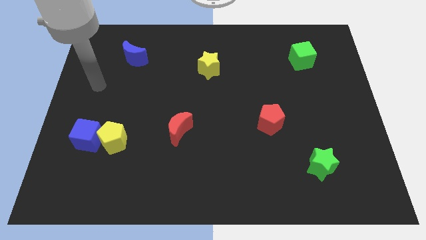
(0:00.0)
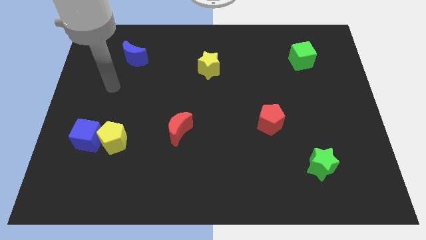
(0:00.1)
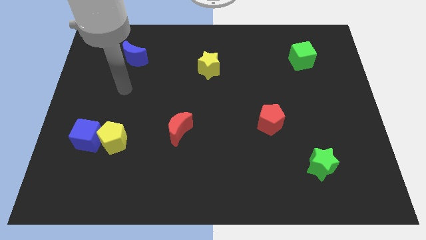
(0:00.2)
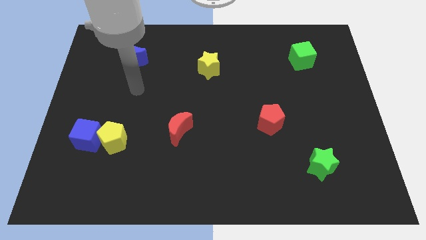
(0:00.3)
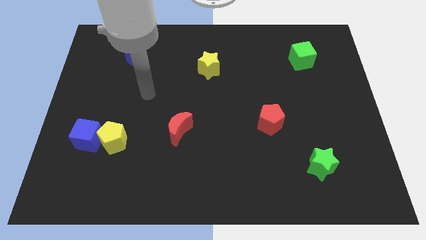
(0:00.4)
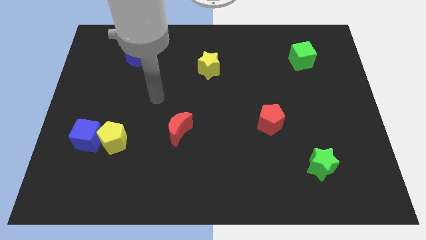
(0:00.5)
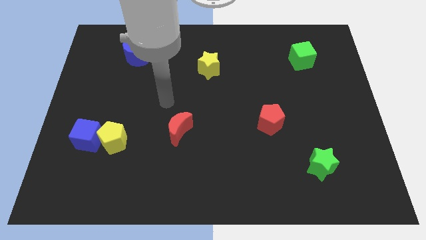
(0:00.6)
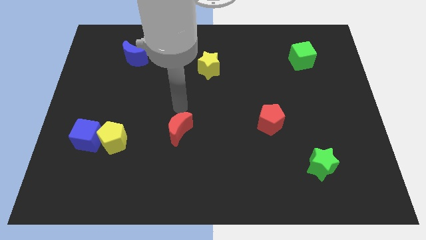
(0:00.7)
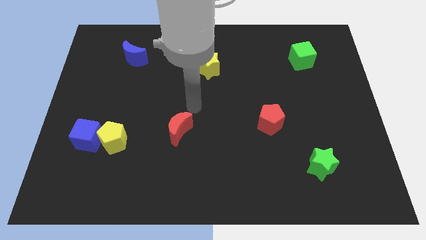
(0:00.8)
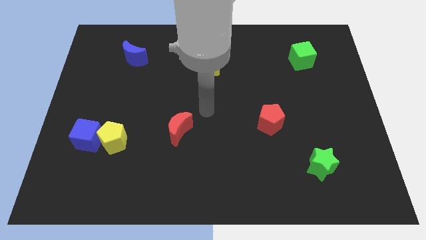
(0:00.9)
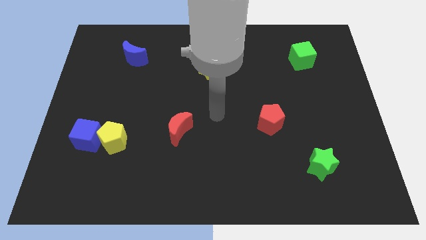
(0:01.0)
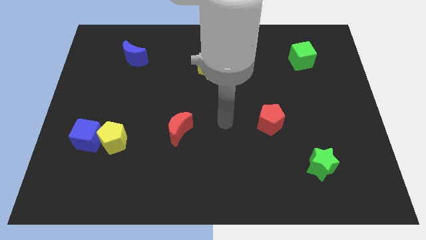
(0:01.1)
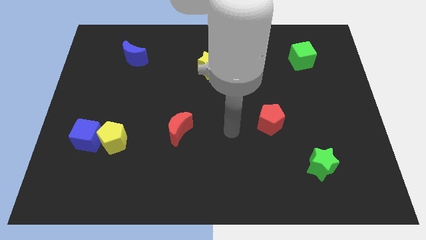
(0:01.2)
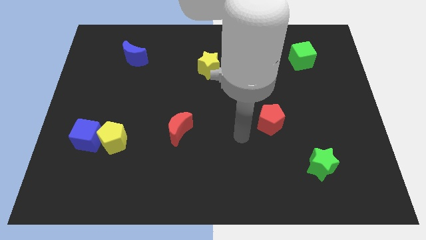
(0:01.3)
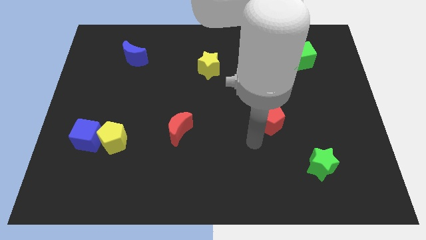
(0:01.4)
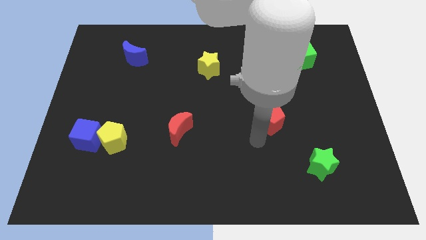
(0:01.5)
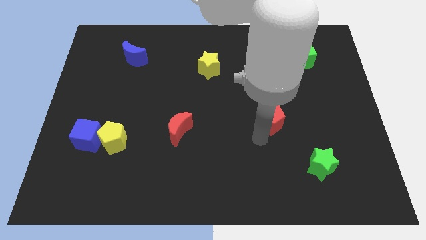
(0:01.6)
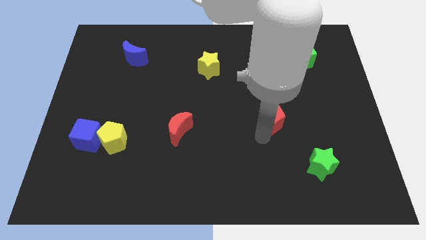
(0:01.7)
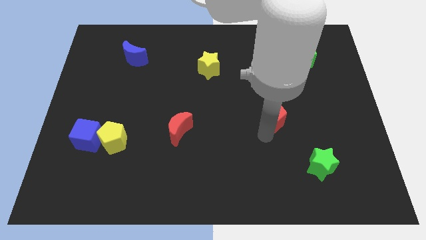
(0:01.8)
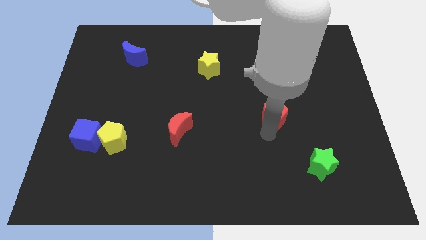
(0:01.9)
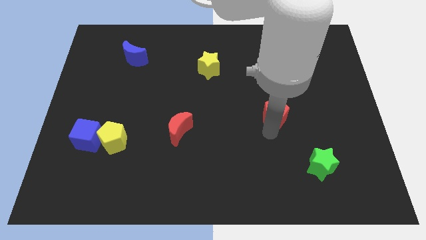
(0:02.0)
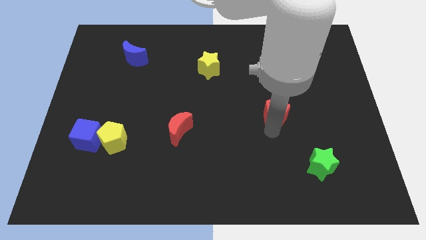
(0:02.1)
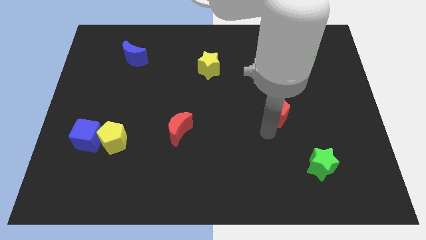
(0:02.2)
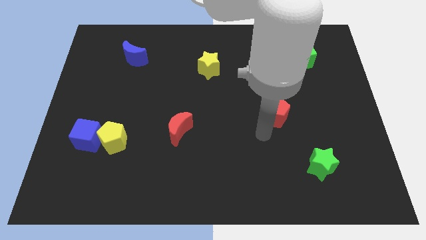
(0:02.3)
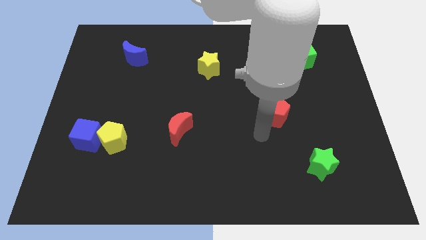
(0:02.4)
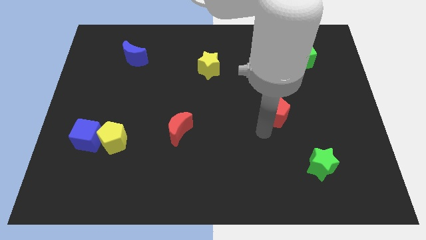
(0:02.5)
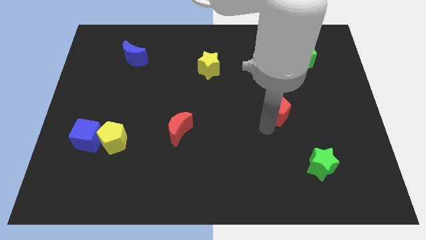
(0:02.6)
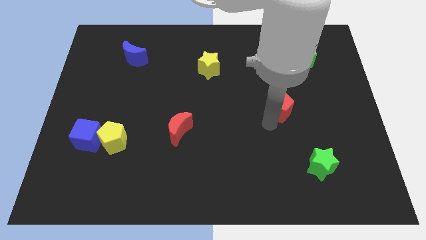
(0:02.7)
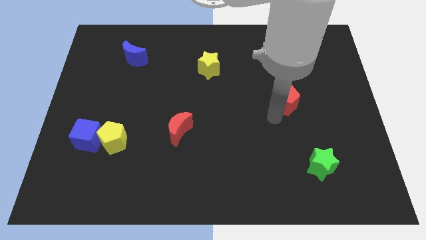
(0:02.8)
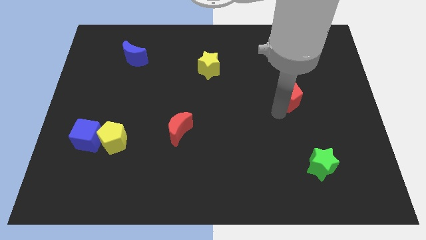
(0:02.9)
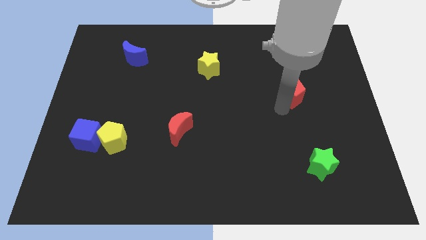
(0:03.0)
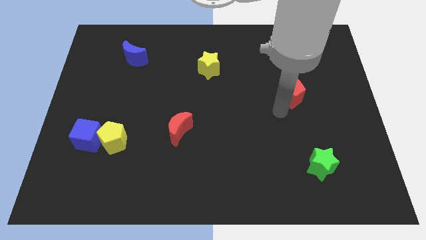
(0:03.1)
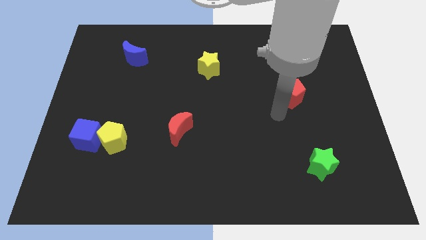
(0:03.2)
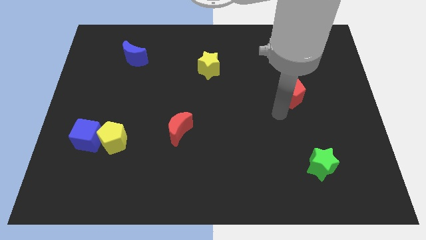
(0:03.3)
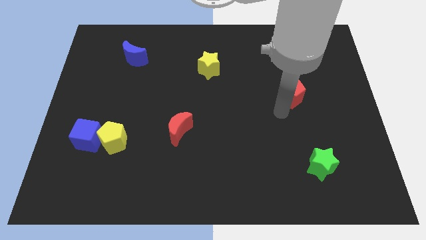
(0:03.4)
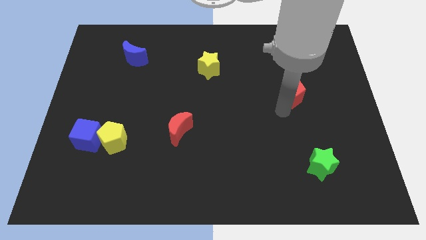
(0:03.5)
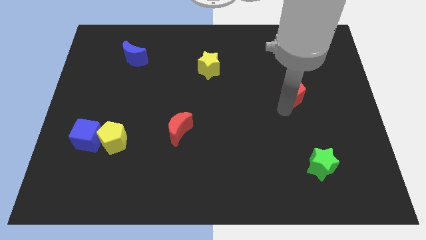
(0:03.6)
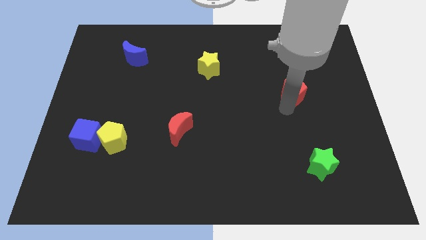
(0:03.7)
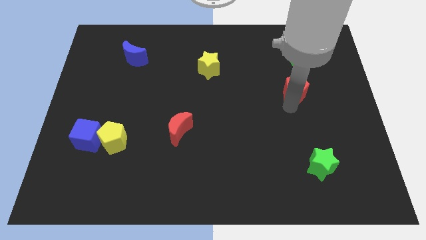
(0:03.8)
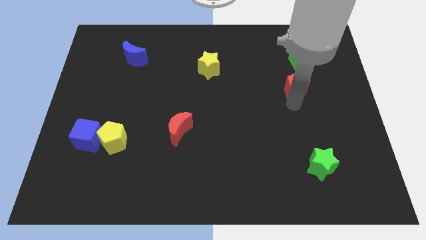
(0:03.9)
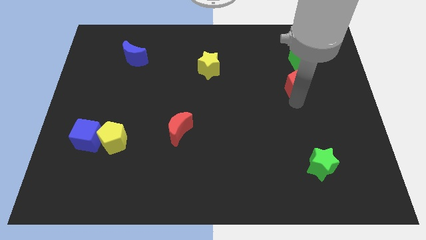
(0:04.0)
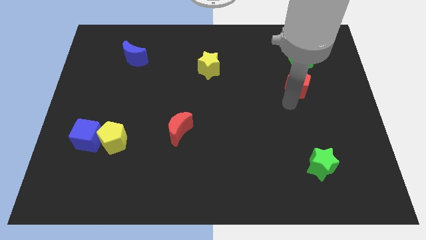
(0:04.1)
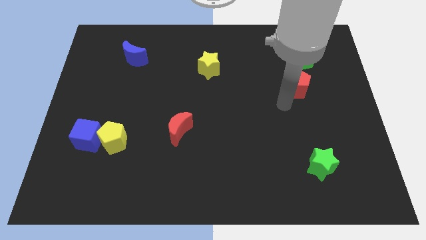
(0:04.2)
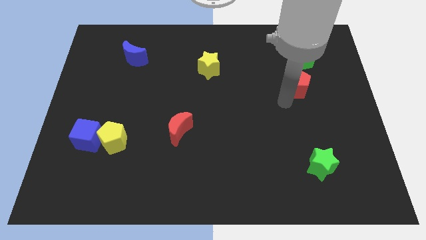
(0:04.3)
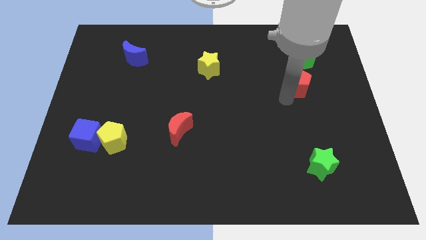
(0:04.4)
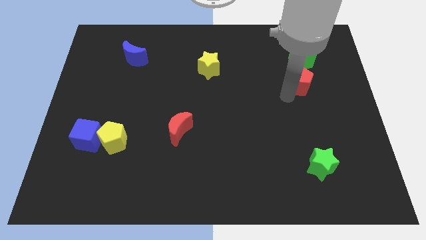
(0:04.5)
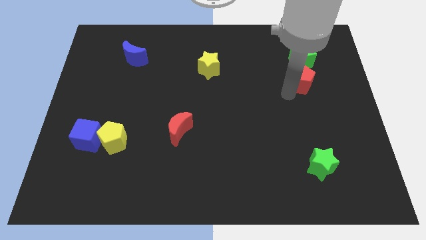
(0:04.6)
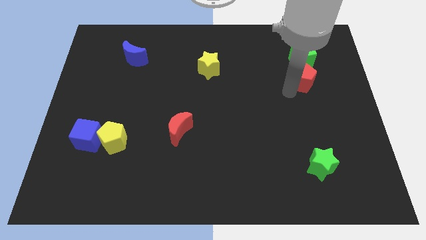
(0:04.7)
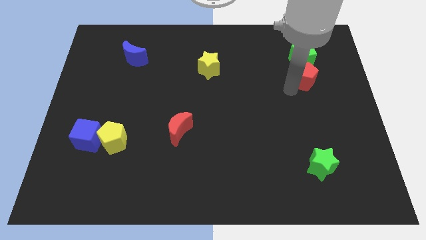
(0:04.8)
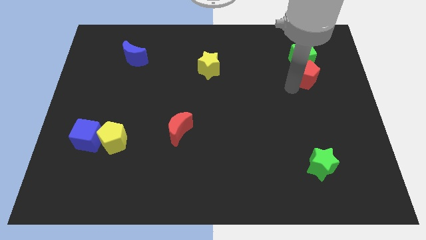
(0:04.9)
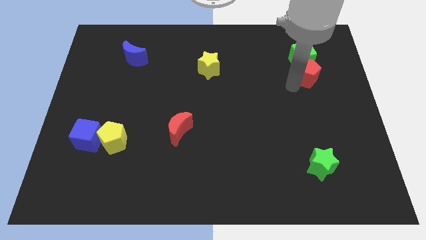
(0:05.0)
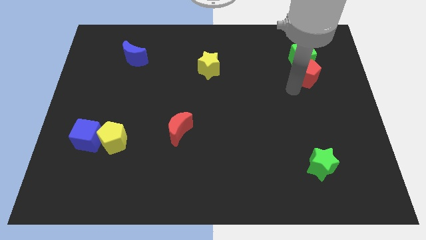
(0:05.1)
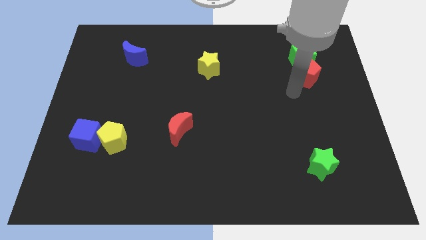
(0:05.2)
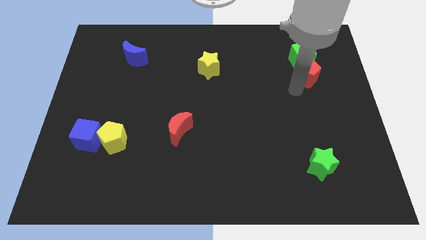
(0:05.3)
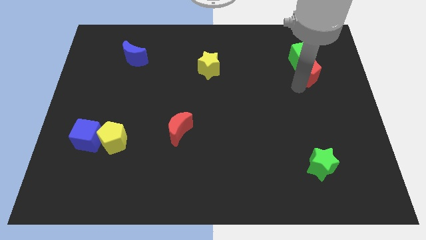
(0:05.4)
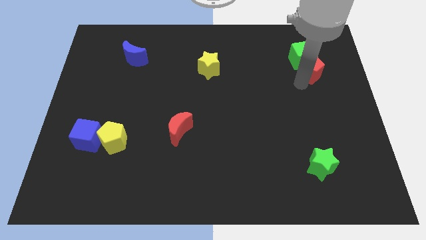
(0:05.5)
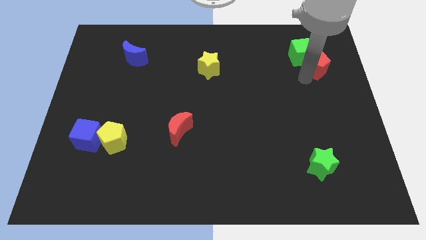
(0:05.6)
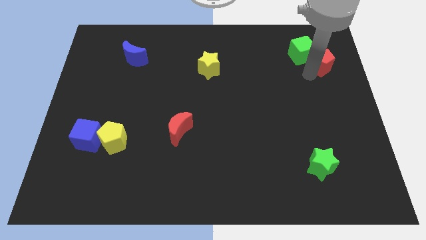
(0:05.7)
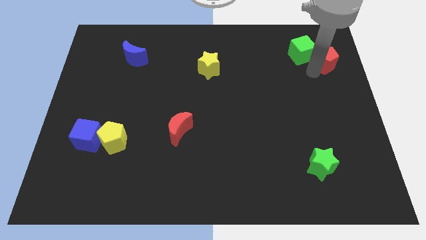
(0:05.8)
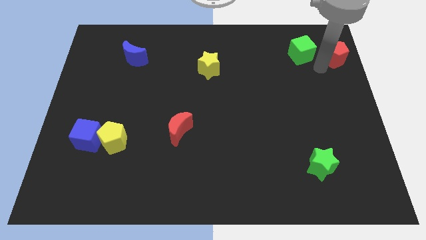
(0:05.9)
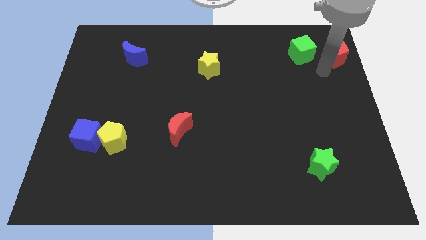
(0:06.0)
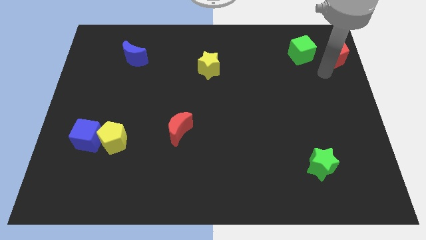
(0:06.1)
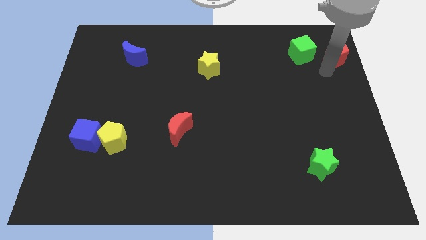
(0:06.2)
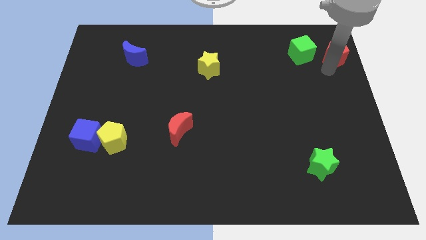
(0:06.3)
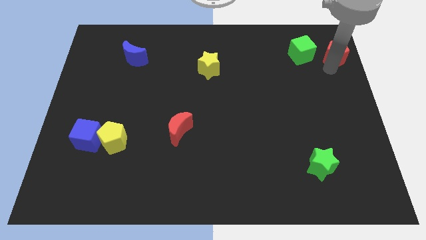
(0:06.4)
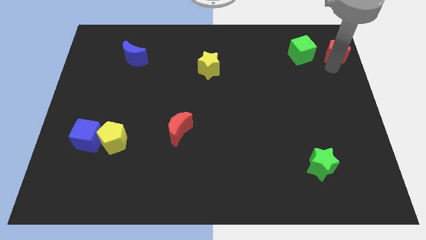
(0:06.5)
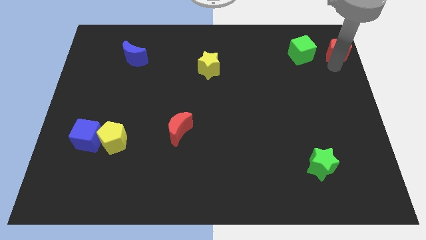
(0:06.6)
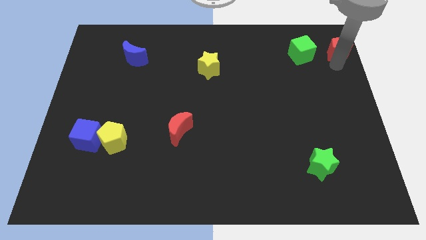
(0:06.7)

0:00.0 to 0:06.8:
put the red pentagon to the top right corner
